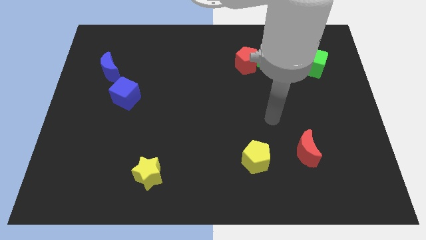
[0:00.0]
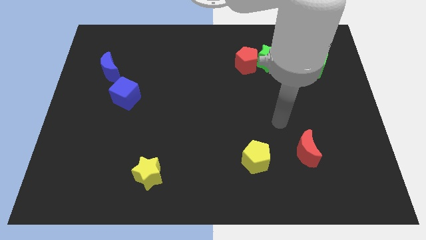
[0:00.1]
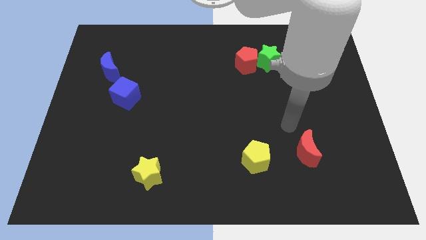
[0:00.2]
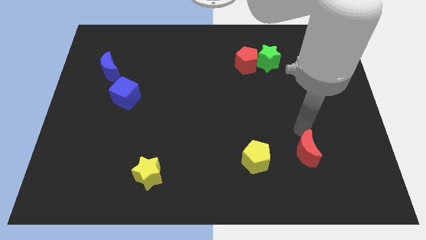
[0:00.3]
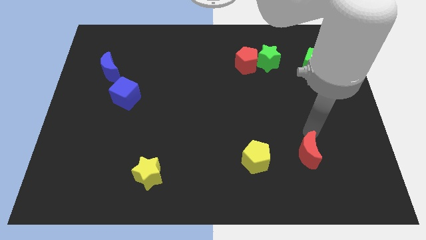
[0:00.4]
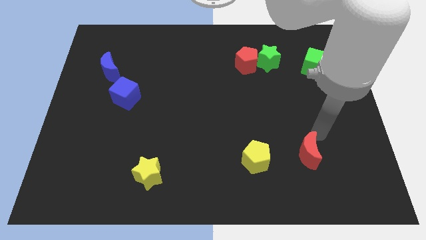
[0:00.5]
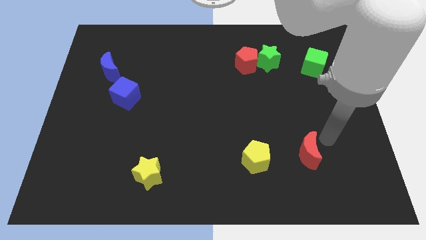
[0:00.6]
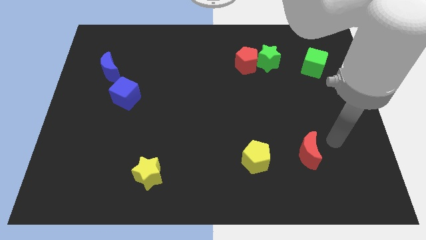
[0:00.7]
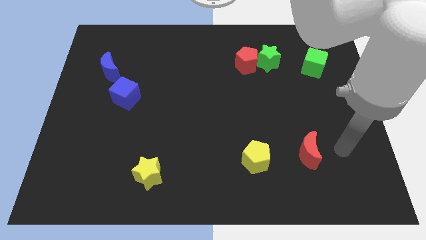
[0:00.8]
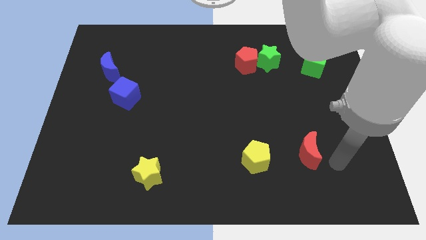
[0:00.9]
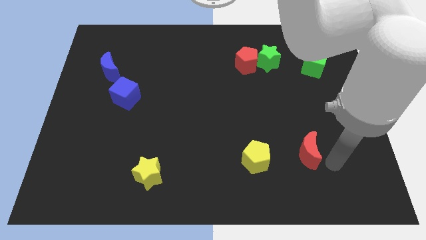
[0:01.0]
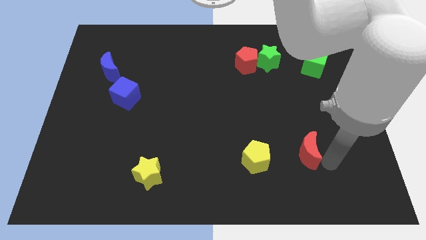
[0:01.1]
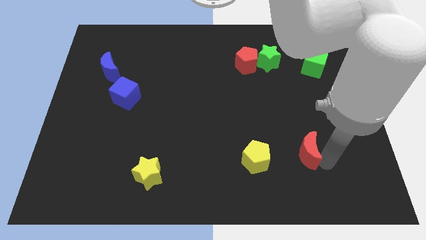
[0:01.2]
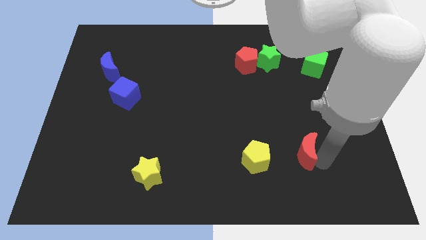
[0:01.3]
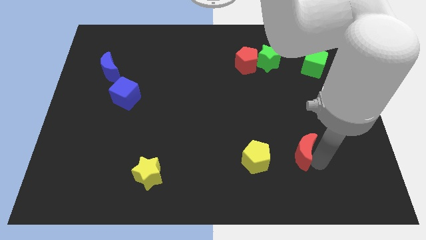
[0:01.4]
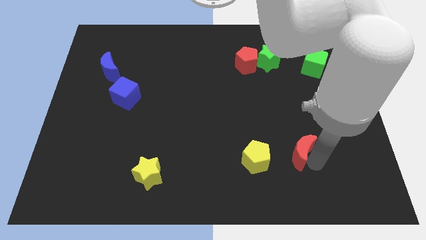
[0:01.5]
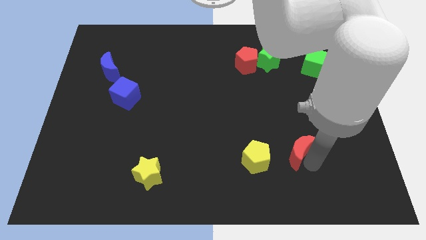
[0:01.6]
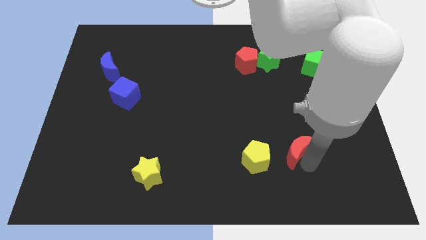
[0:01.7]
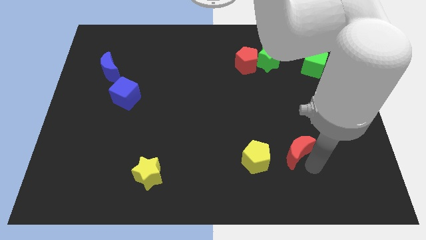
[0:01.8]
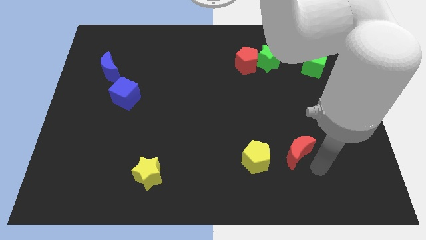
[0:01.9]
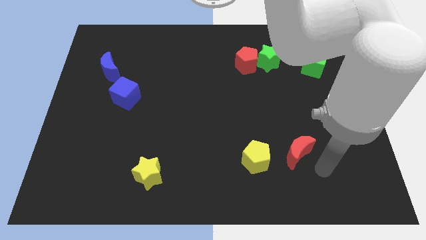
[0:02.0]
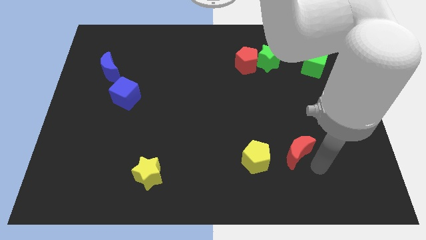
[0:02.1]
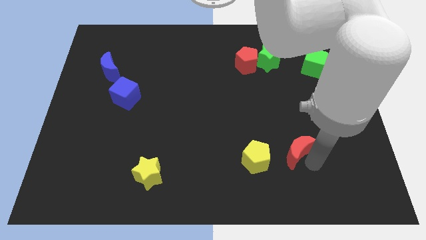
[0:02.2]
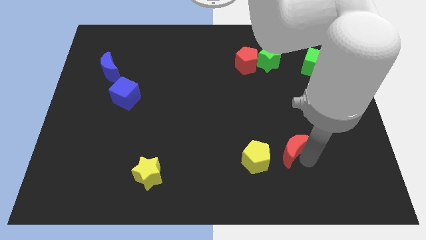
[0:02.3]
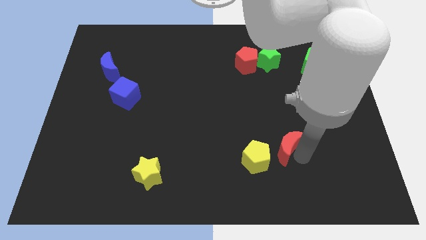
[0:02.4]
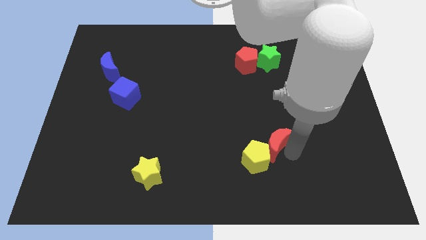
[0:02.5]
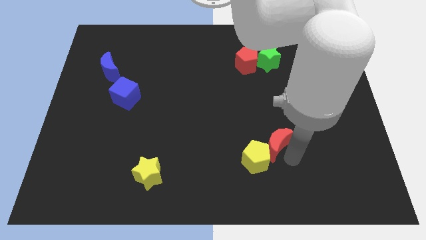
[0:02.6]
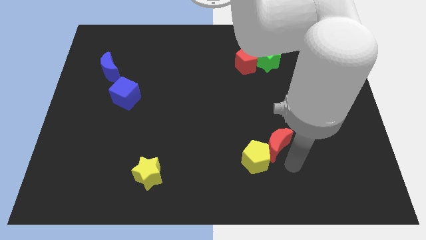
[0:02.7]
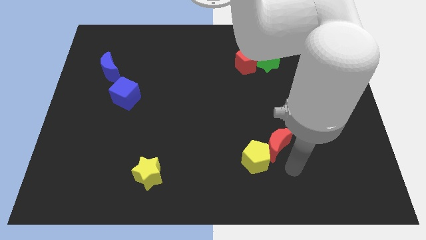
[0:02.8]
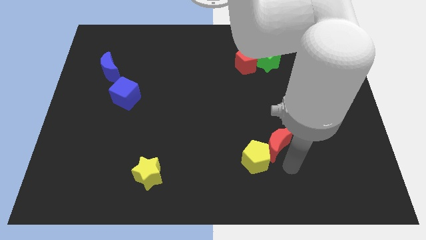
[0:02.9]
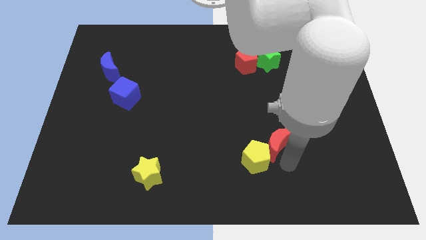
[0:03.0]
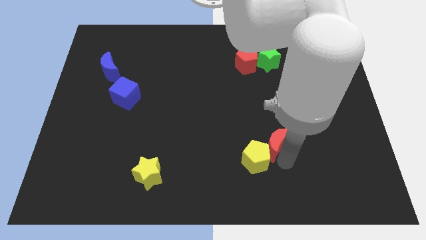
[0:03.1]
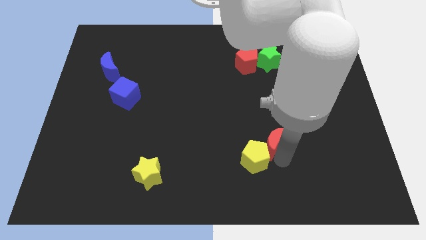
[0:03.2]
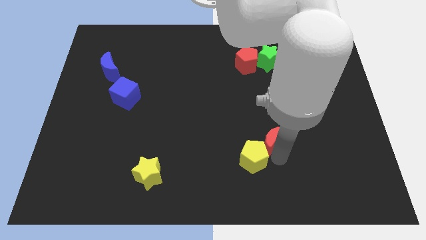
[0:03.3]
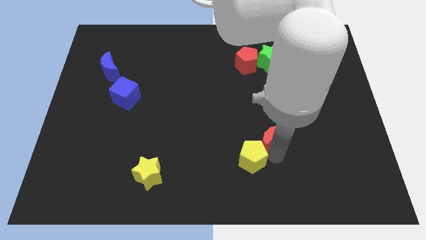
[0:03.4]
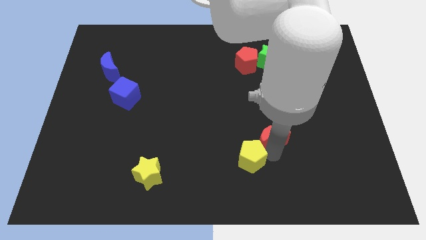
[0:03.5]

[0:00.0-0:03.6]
slide the red moon a bit upwards and to the left

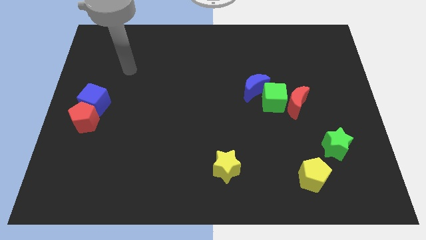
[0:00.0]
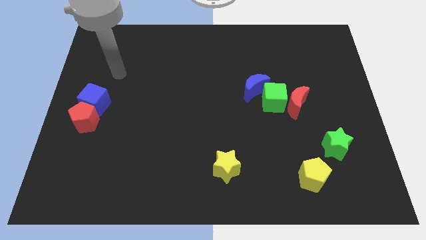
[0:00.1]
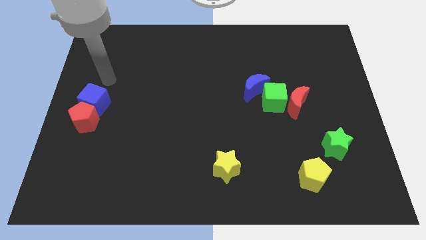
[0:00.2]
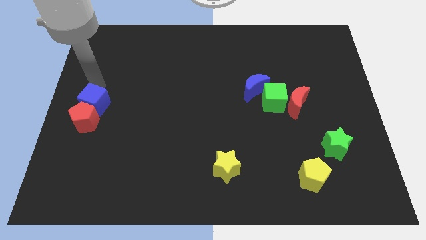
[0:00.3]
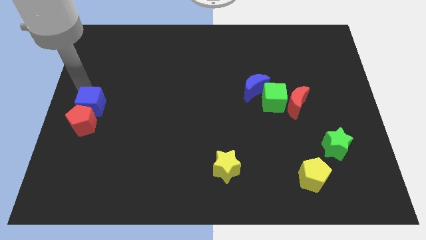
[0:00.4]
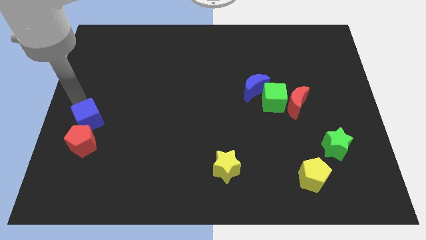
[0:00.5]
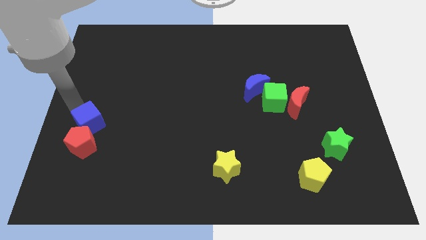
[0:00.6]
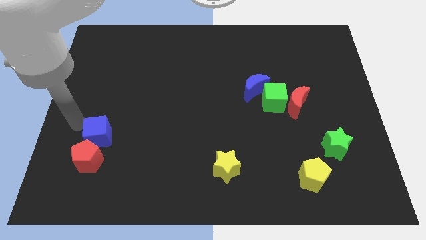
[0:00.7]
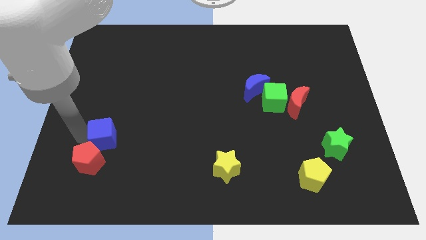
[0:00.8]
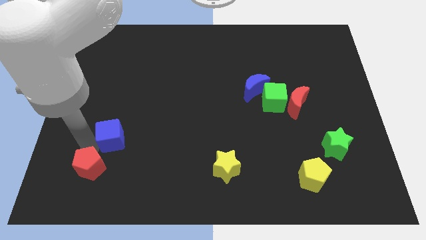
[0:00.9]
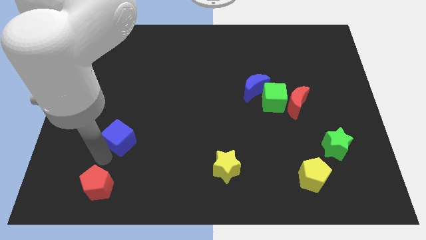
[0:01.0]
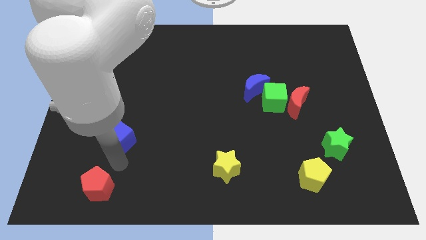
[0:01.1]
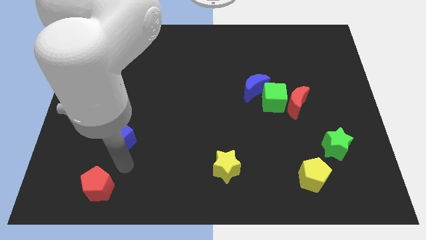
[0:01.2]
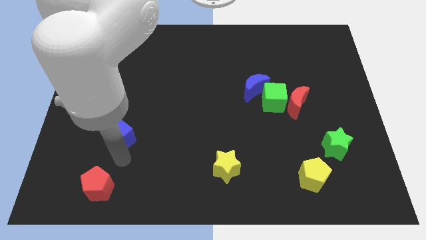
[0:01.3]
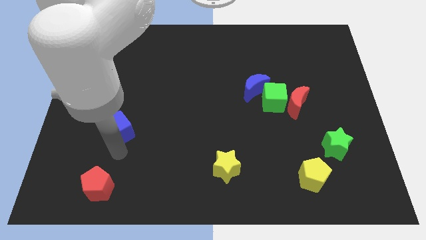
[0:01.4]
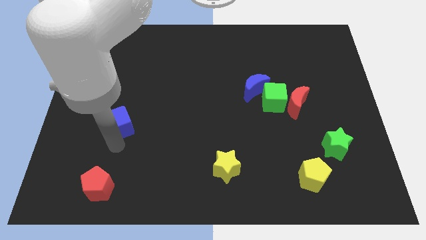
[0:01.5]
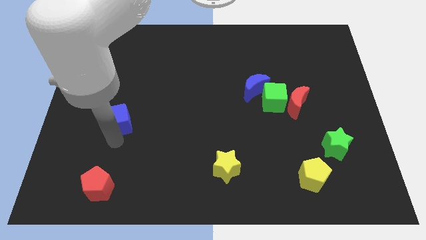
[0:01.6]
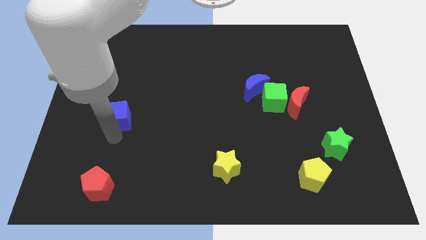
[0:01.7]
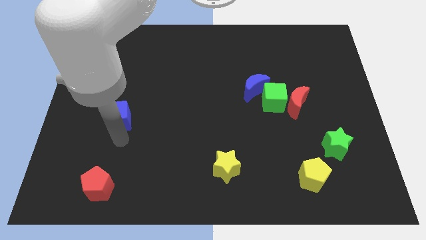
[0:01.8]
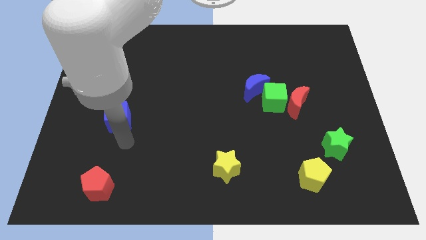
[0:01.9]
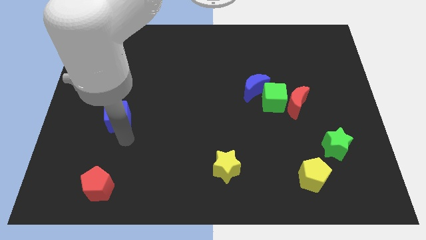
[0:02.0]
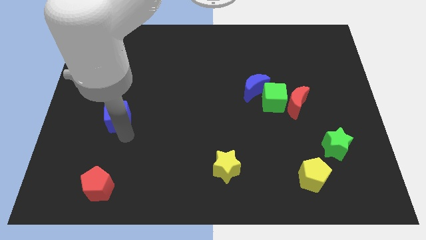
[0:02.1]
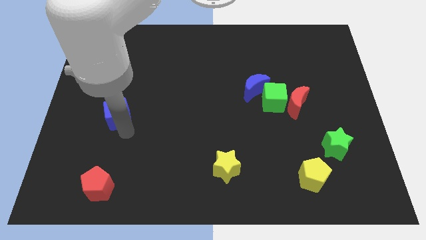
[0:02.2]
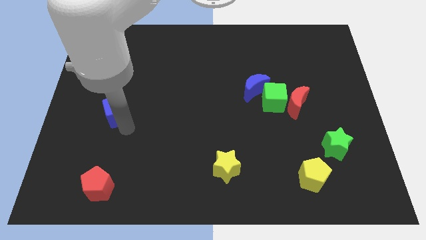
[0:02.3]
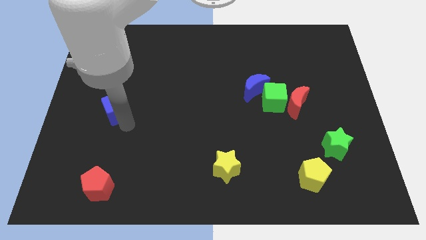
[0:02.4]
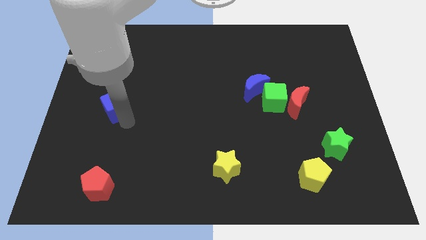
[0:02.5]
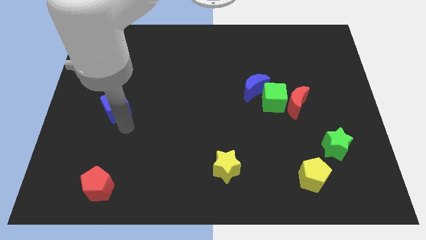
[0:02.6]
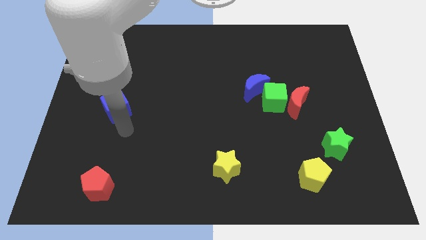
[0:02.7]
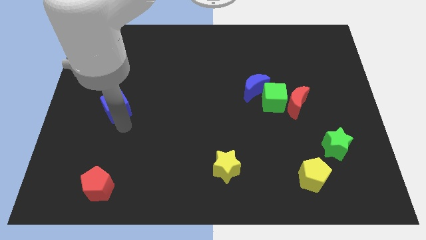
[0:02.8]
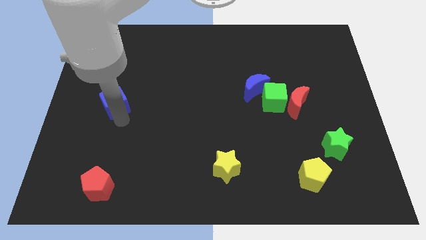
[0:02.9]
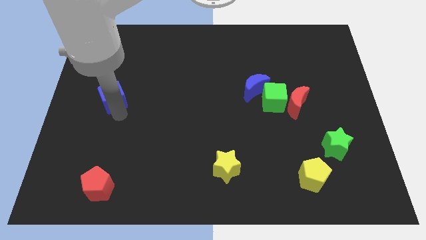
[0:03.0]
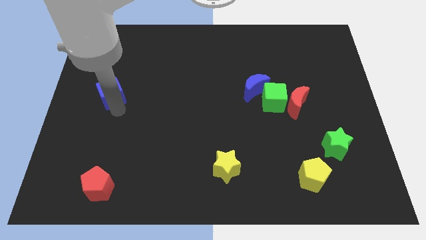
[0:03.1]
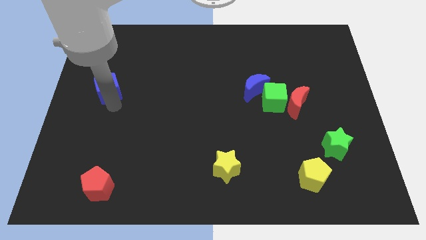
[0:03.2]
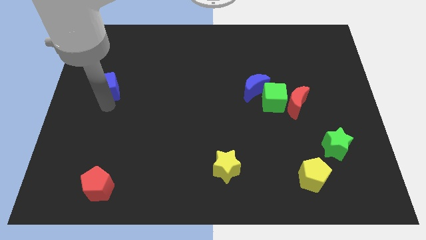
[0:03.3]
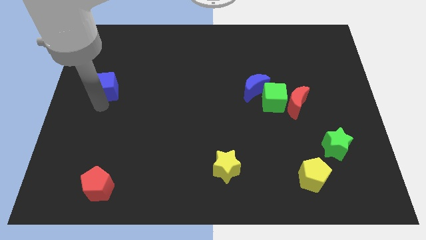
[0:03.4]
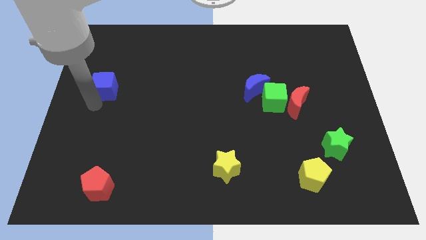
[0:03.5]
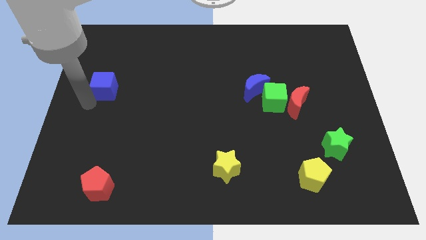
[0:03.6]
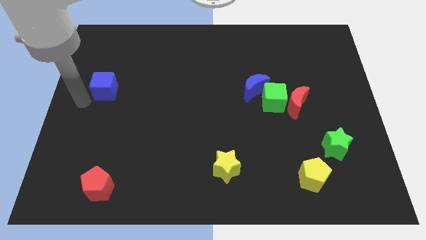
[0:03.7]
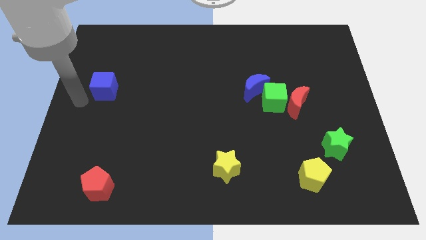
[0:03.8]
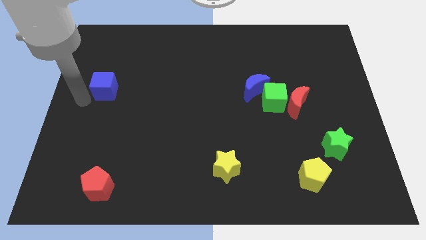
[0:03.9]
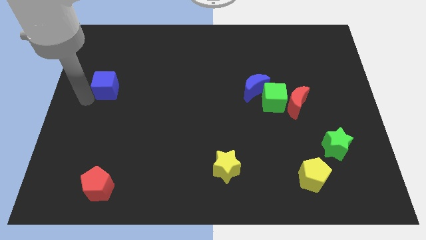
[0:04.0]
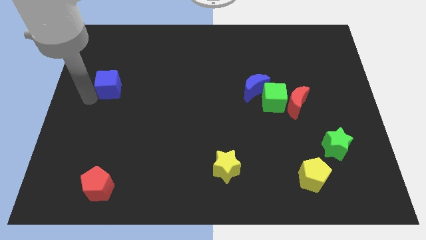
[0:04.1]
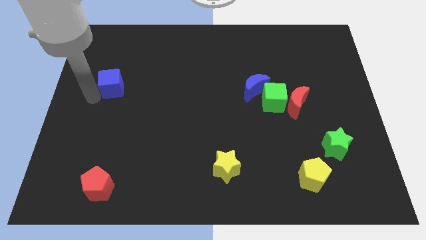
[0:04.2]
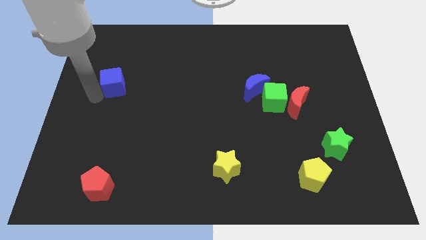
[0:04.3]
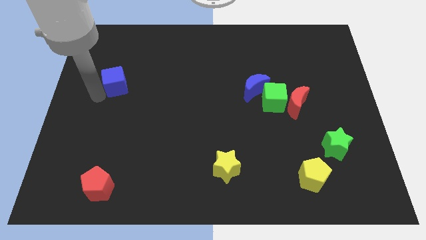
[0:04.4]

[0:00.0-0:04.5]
move the blue cube up and right diagonally somewhat
